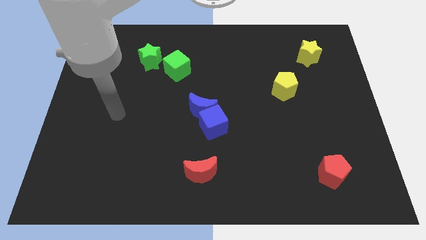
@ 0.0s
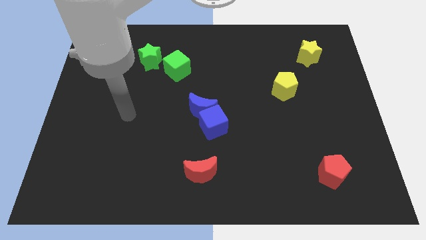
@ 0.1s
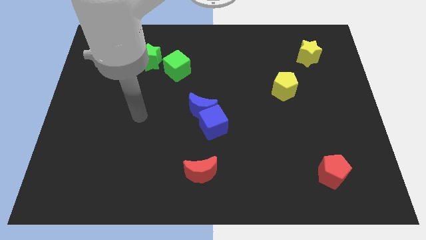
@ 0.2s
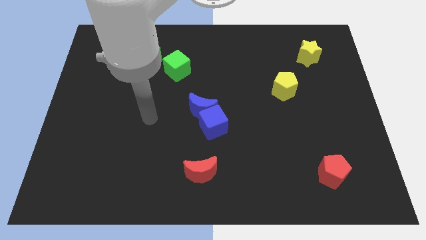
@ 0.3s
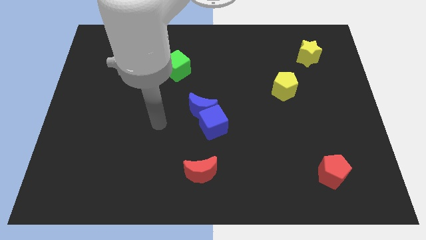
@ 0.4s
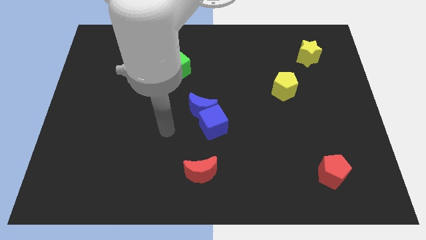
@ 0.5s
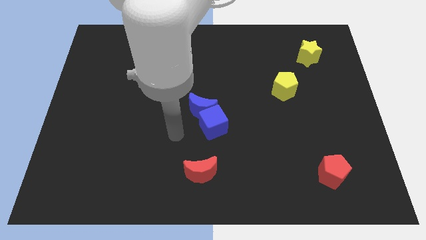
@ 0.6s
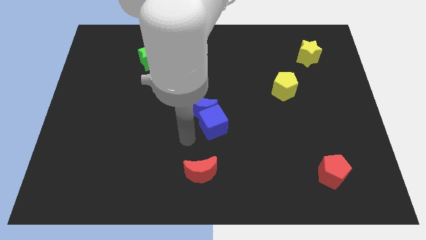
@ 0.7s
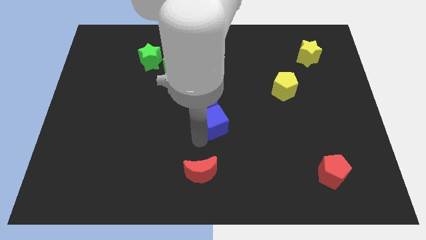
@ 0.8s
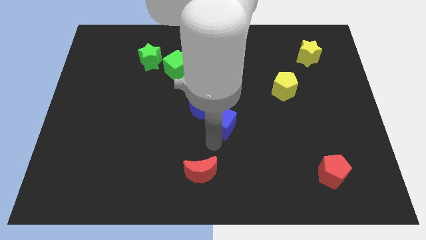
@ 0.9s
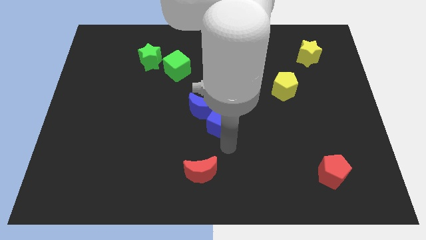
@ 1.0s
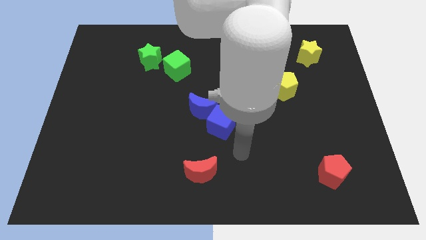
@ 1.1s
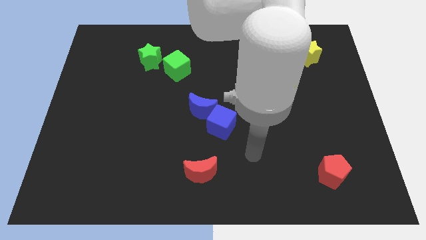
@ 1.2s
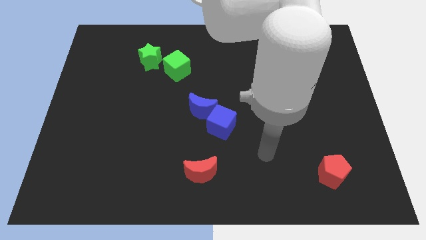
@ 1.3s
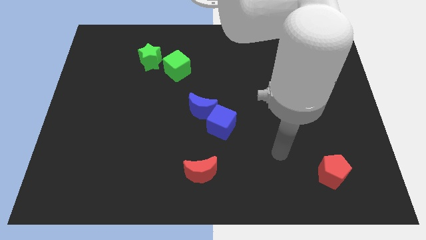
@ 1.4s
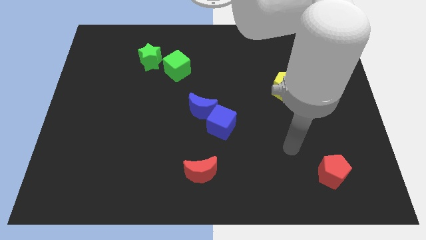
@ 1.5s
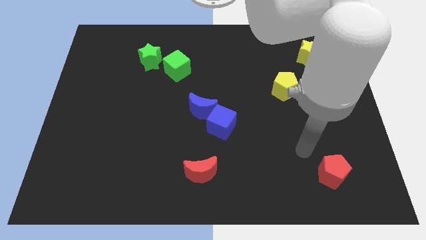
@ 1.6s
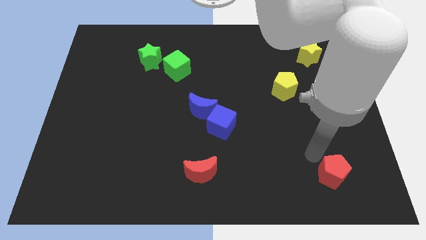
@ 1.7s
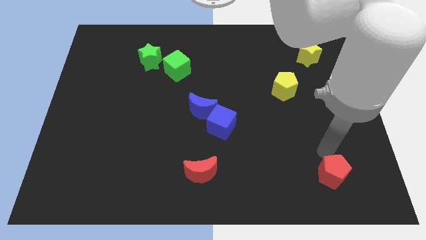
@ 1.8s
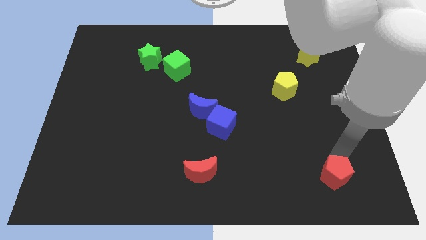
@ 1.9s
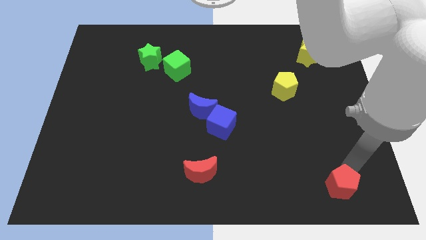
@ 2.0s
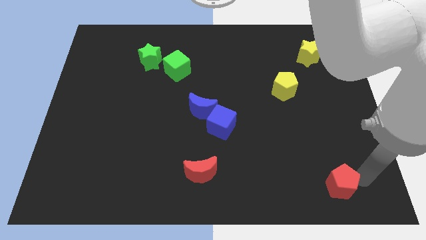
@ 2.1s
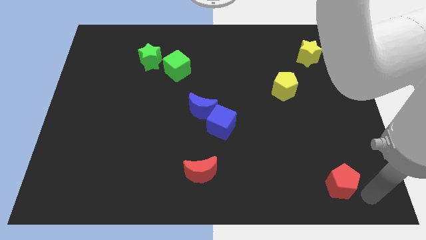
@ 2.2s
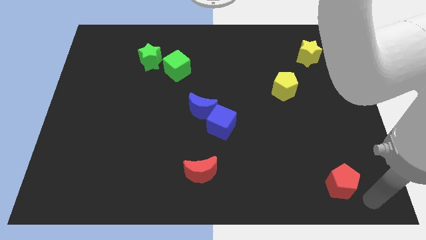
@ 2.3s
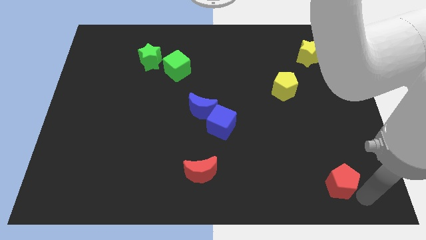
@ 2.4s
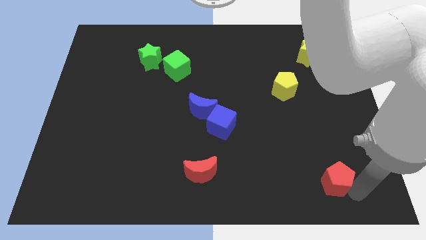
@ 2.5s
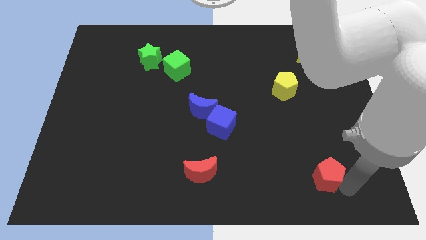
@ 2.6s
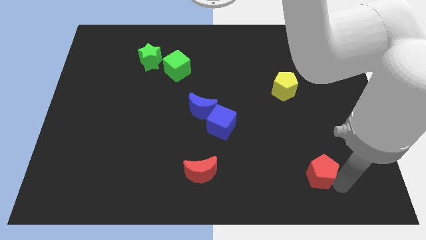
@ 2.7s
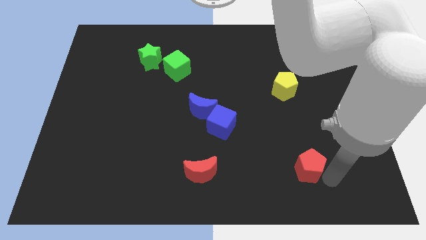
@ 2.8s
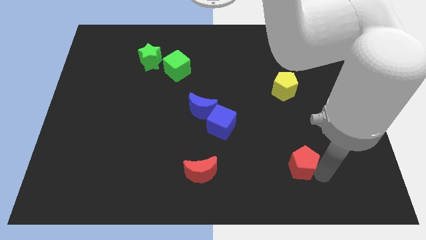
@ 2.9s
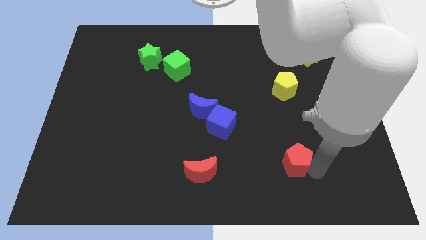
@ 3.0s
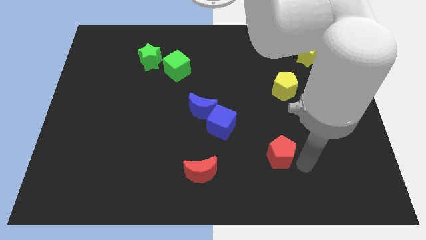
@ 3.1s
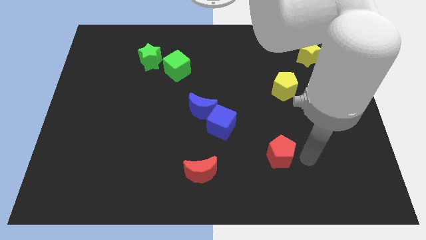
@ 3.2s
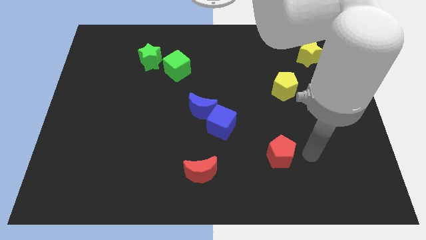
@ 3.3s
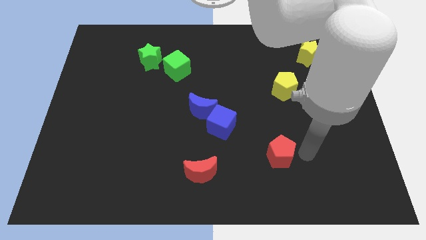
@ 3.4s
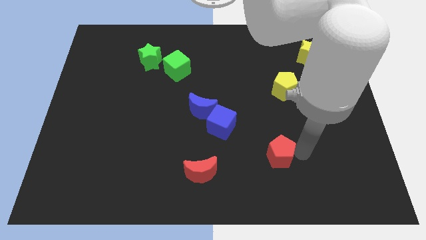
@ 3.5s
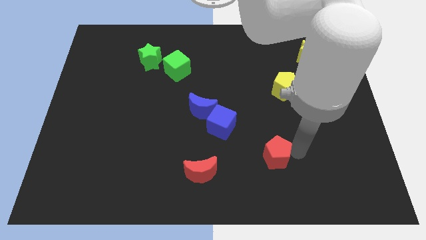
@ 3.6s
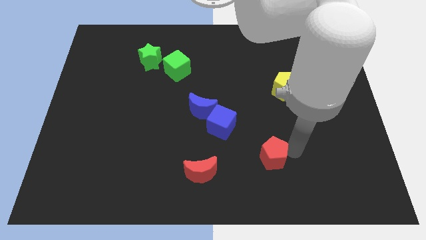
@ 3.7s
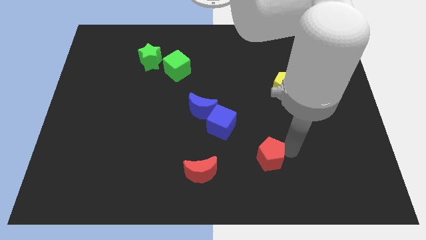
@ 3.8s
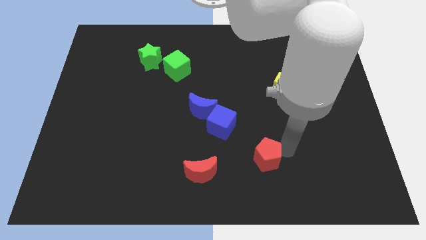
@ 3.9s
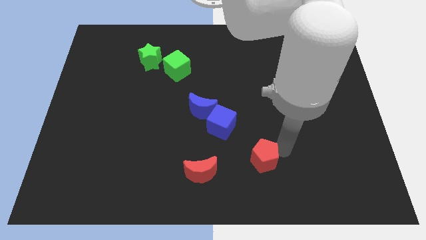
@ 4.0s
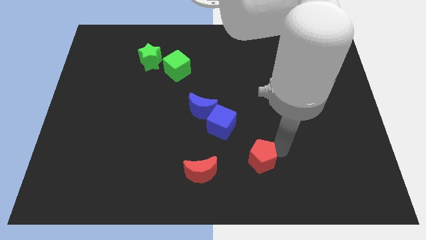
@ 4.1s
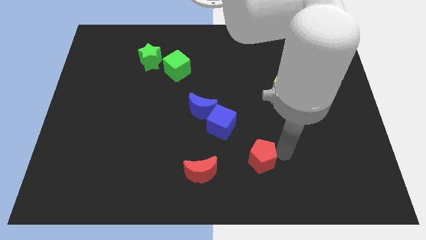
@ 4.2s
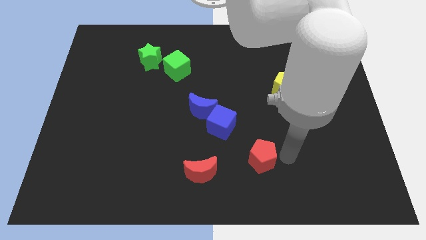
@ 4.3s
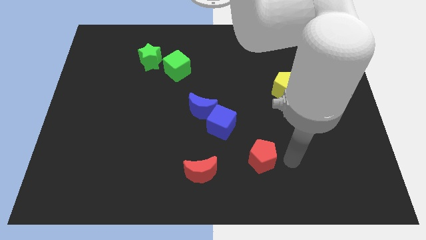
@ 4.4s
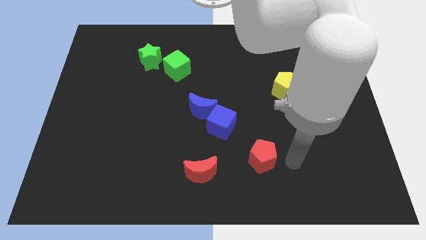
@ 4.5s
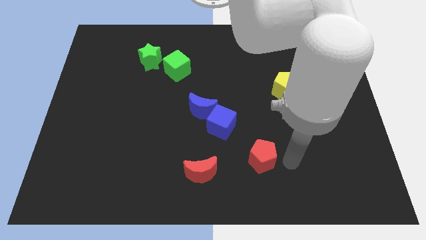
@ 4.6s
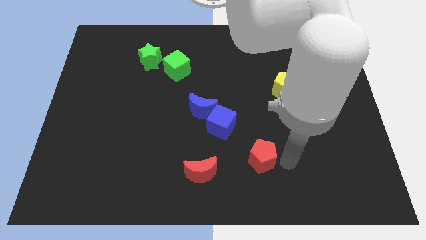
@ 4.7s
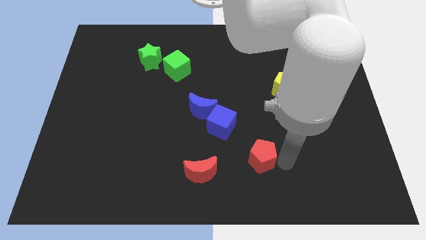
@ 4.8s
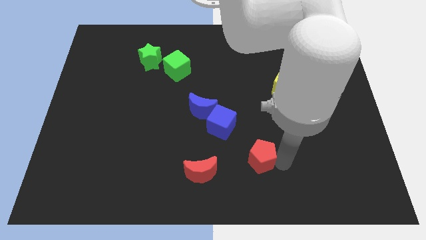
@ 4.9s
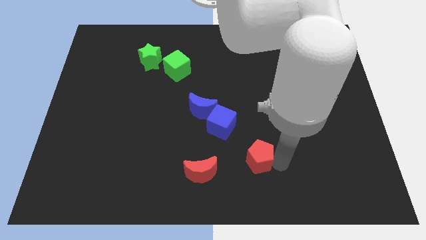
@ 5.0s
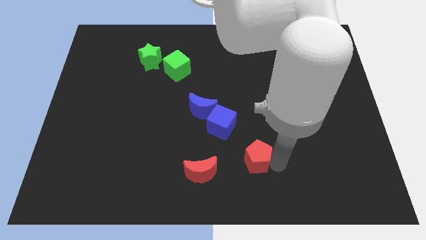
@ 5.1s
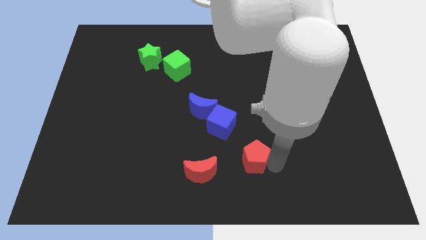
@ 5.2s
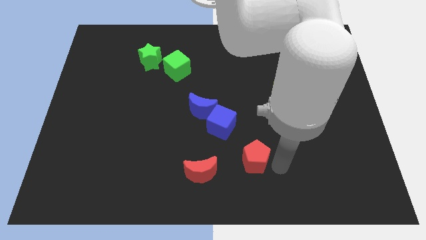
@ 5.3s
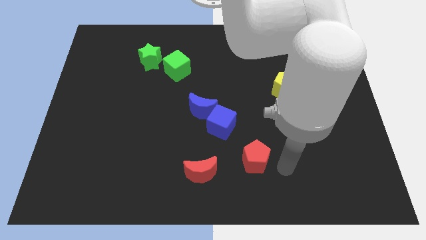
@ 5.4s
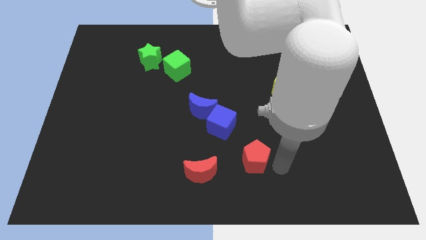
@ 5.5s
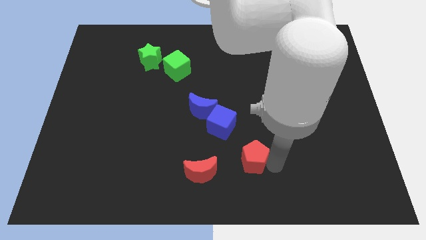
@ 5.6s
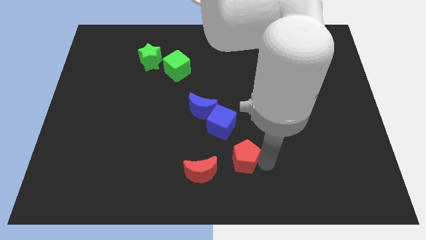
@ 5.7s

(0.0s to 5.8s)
slide the red pentagon to the top right of the red moon

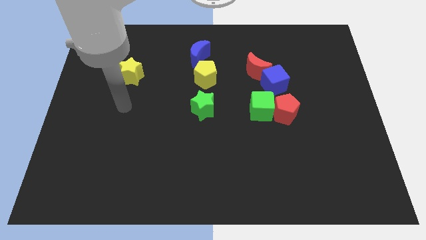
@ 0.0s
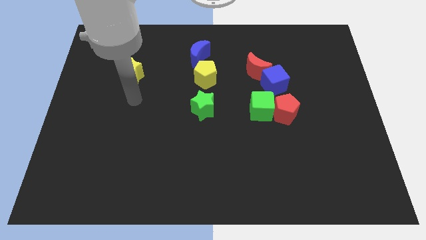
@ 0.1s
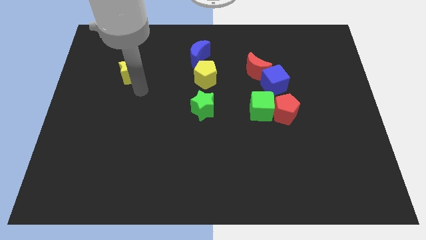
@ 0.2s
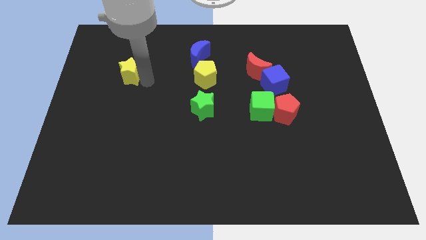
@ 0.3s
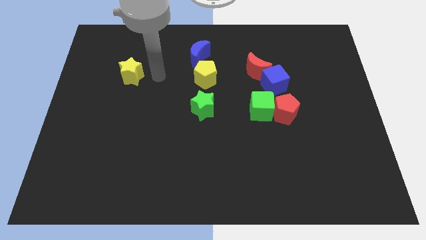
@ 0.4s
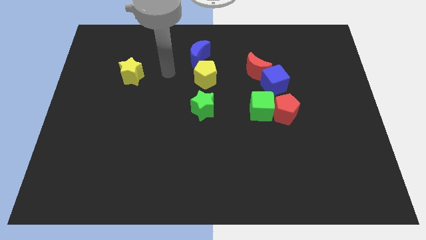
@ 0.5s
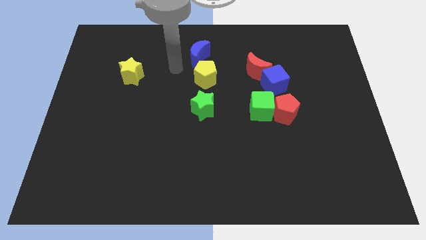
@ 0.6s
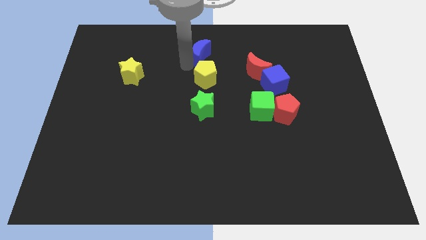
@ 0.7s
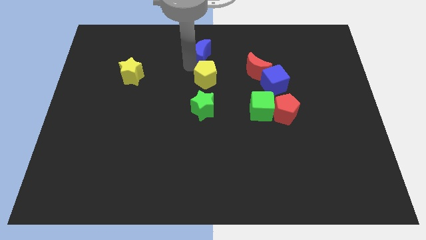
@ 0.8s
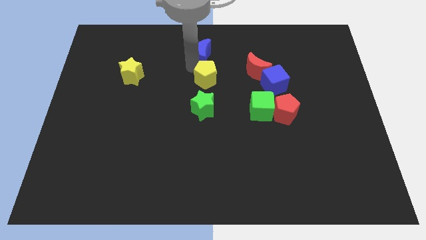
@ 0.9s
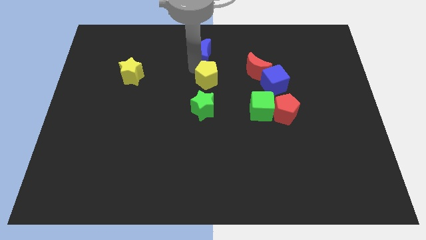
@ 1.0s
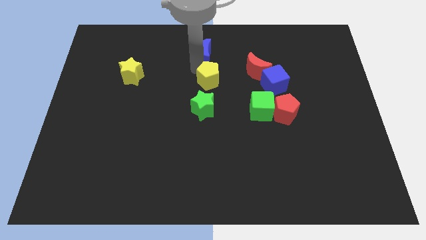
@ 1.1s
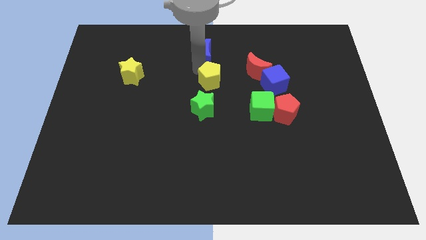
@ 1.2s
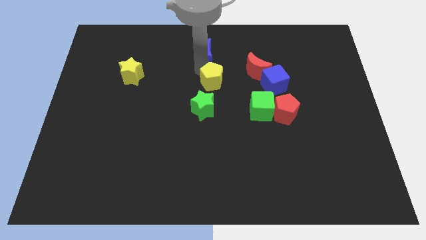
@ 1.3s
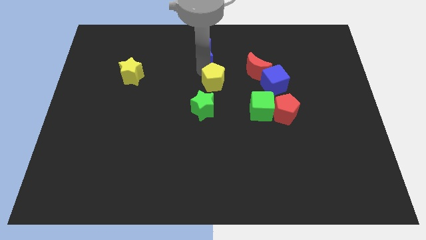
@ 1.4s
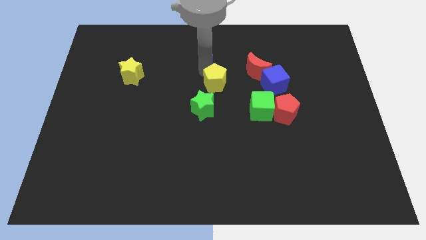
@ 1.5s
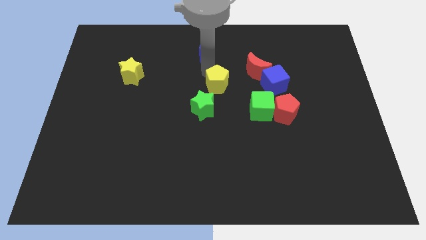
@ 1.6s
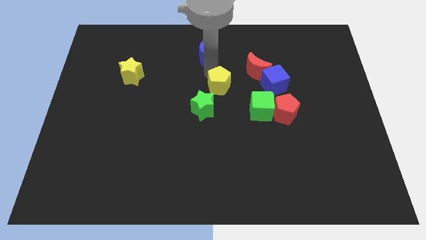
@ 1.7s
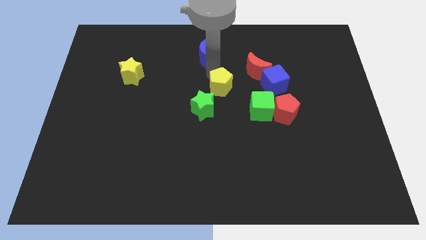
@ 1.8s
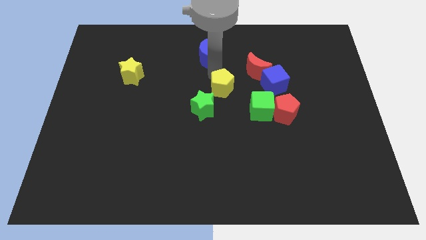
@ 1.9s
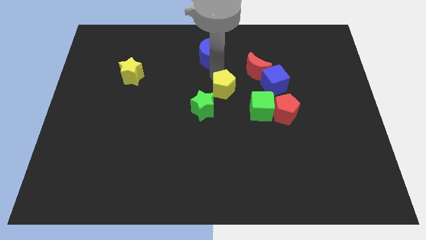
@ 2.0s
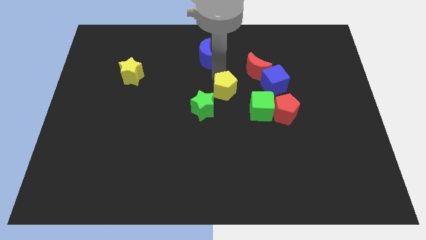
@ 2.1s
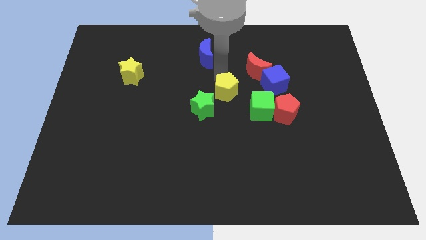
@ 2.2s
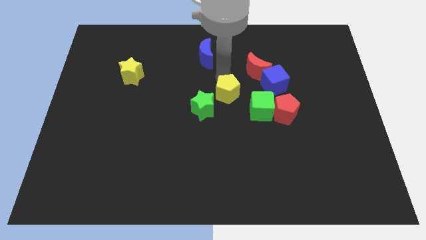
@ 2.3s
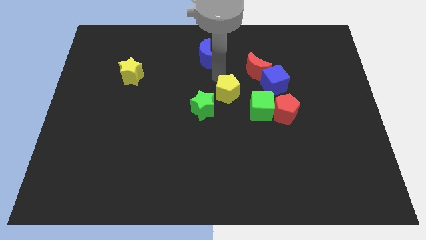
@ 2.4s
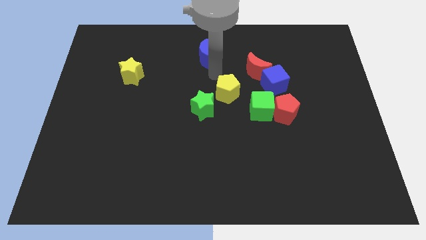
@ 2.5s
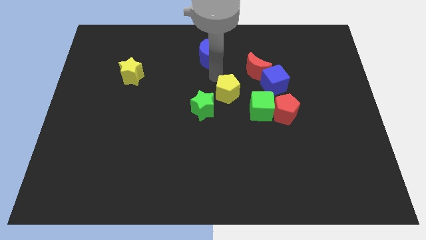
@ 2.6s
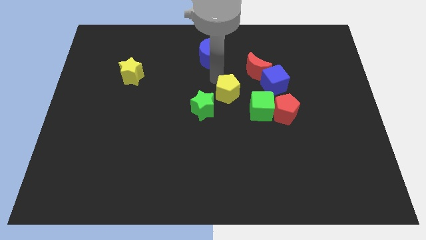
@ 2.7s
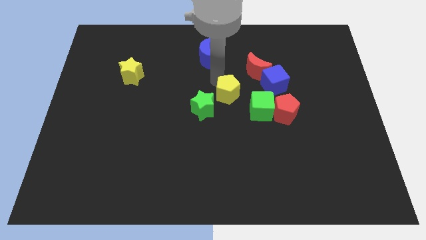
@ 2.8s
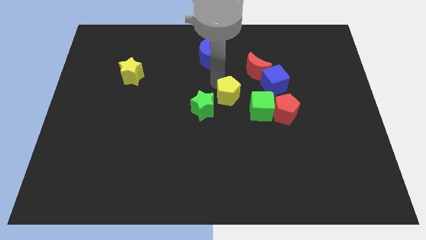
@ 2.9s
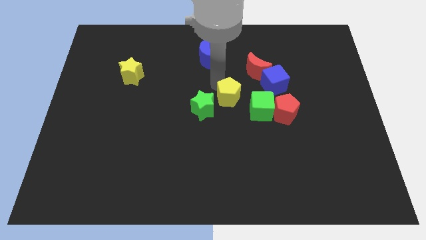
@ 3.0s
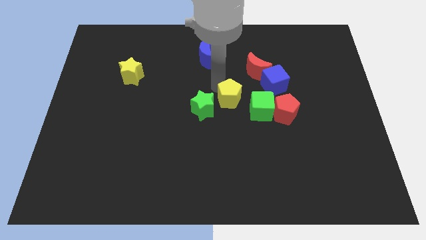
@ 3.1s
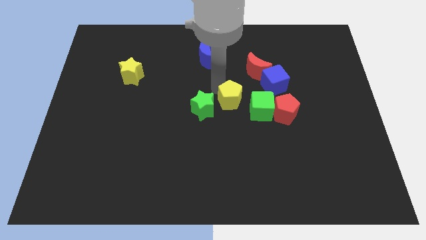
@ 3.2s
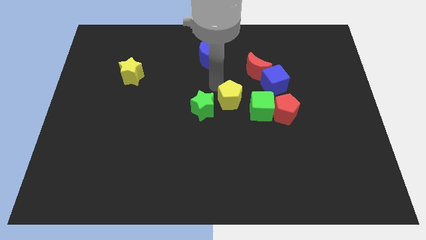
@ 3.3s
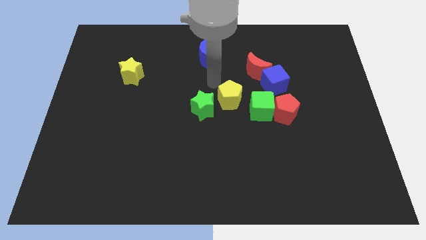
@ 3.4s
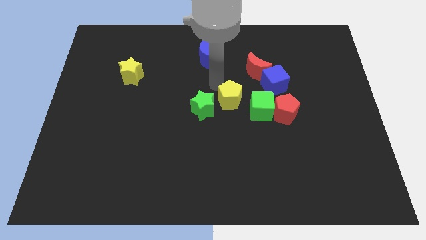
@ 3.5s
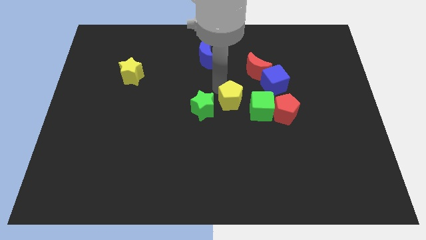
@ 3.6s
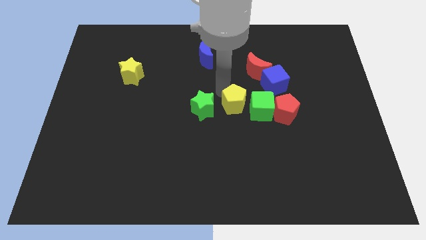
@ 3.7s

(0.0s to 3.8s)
move the yellow pentagon to the bottom left side of the blue cube
